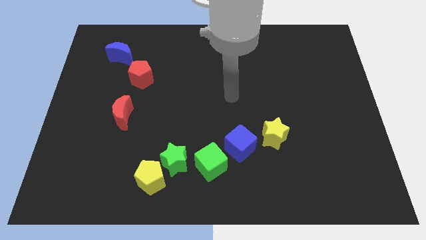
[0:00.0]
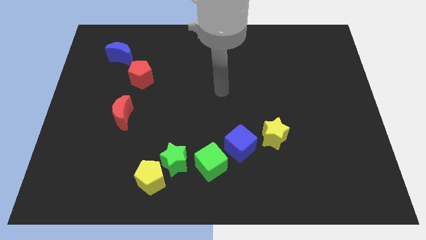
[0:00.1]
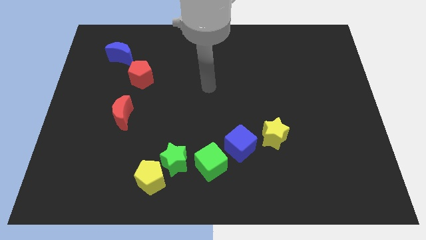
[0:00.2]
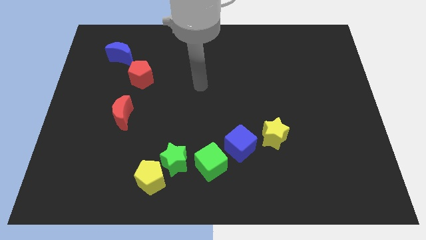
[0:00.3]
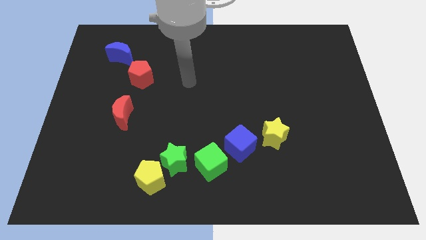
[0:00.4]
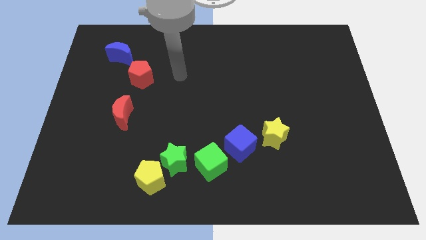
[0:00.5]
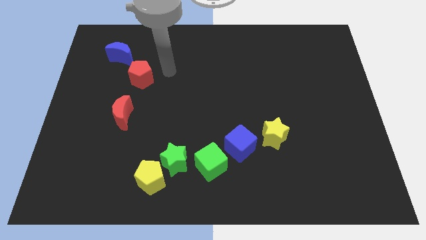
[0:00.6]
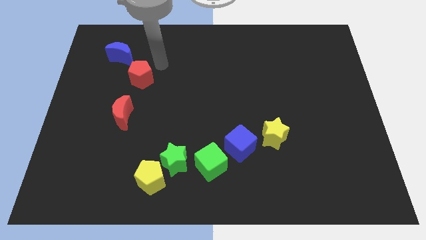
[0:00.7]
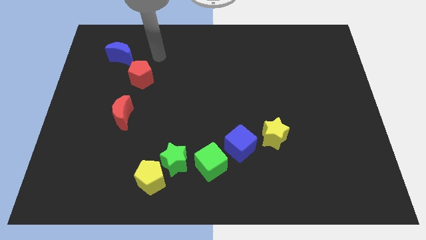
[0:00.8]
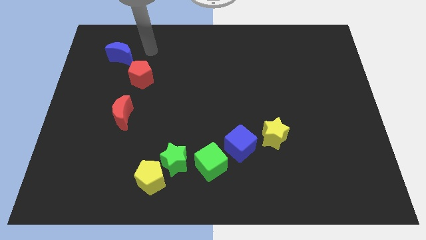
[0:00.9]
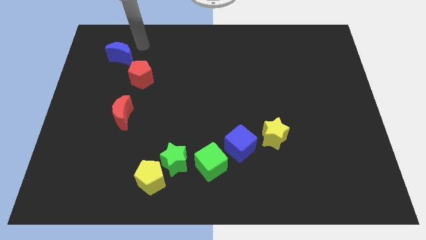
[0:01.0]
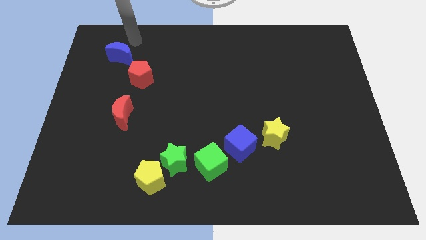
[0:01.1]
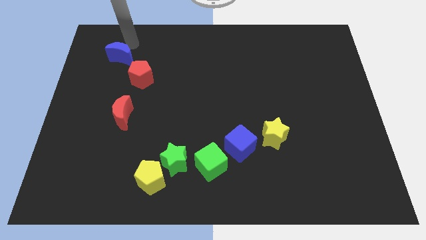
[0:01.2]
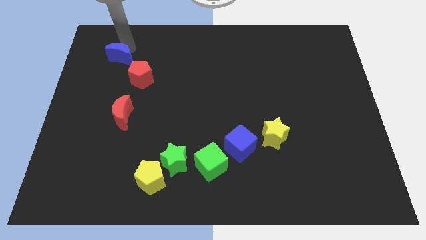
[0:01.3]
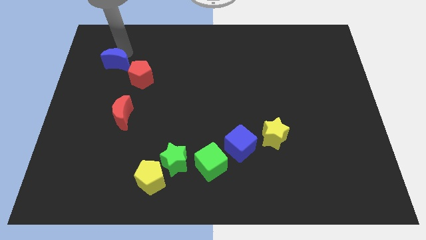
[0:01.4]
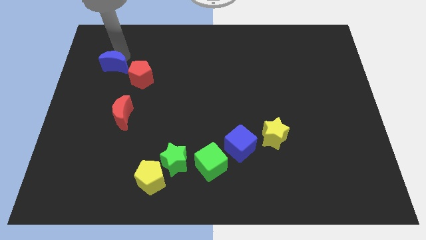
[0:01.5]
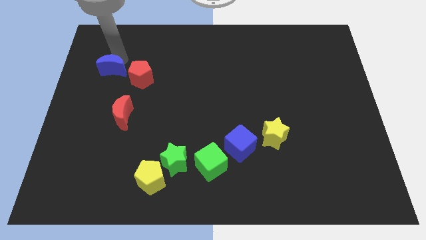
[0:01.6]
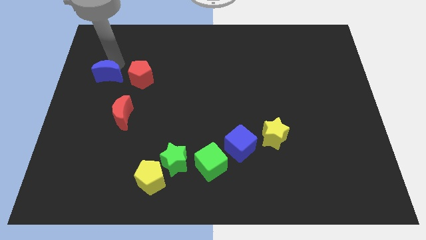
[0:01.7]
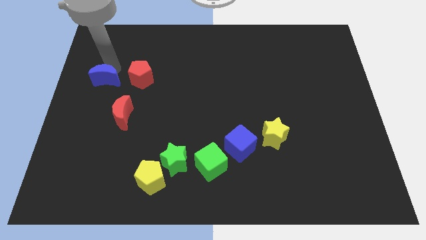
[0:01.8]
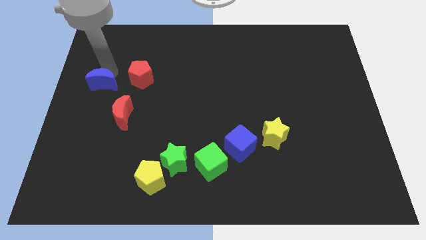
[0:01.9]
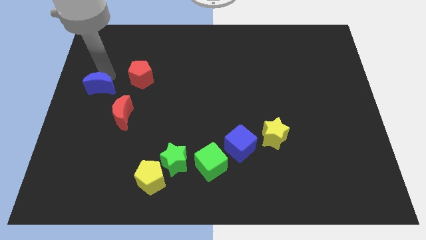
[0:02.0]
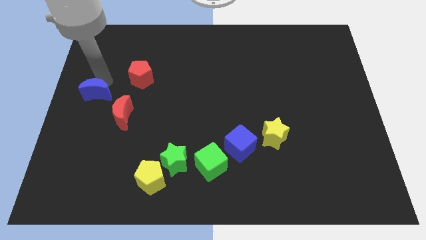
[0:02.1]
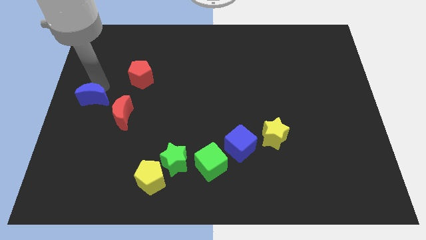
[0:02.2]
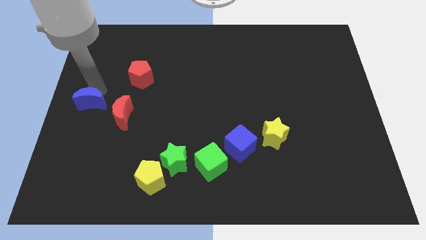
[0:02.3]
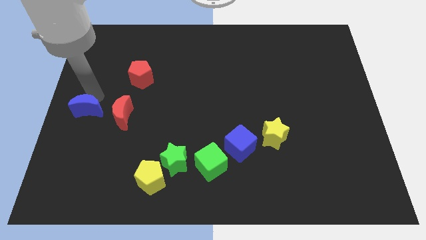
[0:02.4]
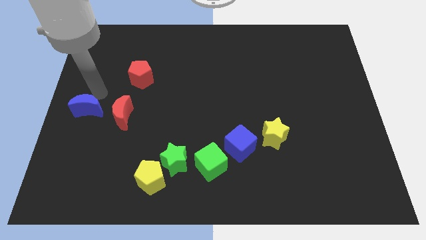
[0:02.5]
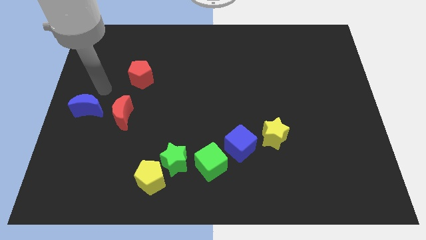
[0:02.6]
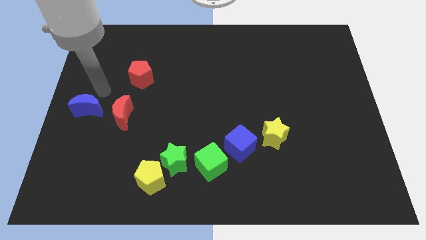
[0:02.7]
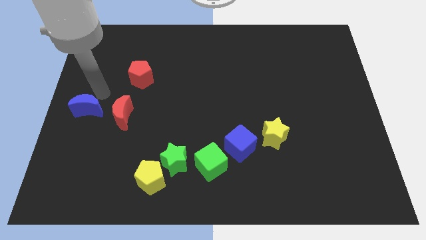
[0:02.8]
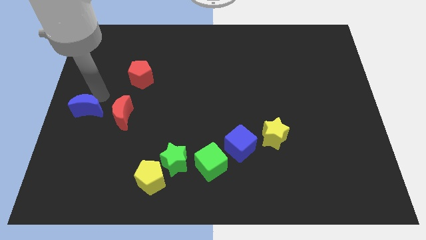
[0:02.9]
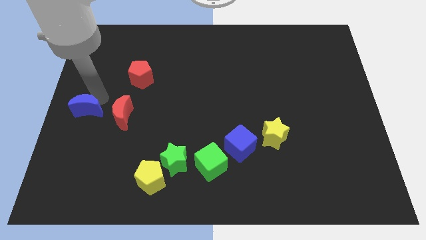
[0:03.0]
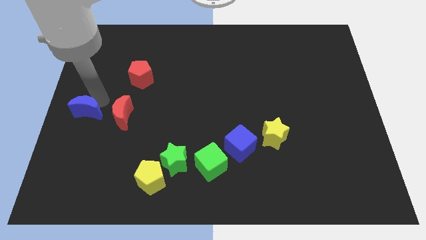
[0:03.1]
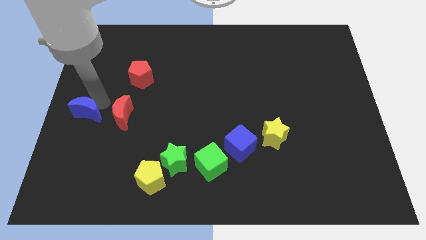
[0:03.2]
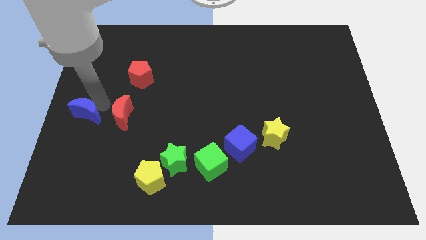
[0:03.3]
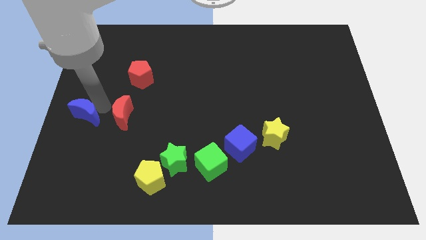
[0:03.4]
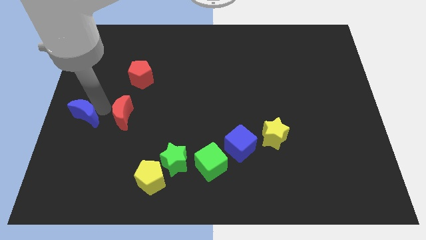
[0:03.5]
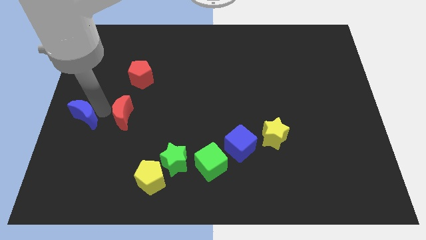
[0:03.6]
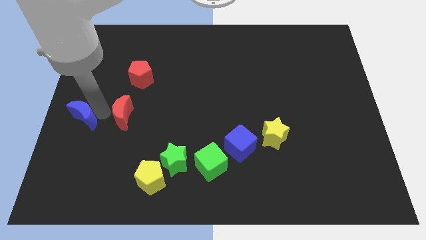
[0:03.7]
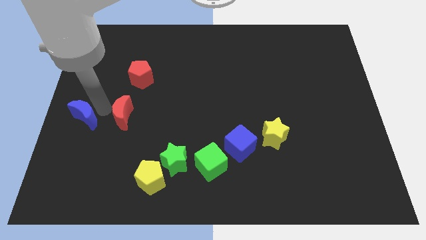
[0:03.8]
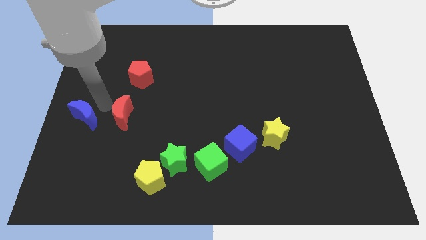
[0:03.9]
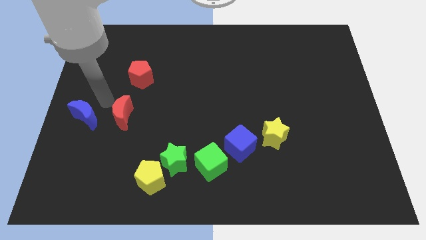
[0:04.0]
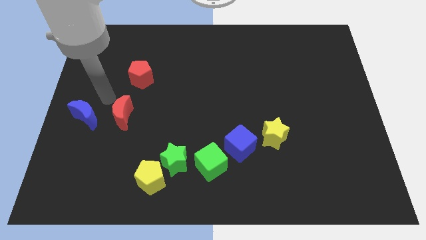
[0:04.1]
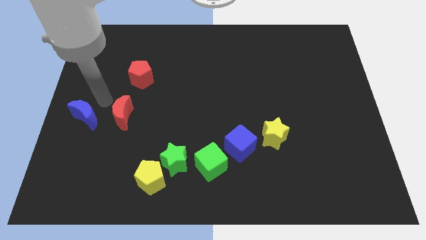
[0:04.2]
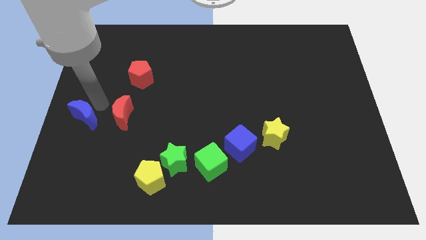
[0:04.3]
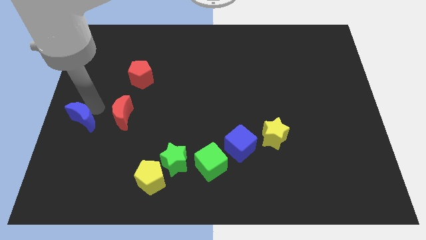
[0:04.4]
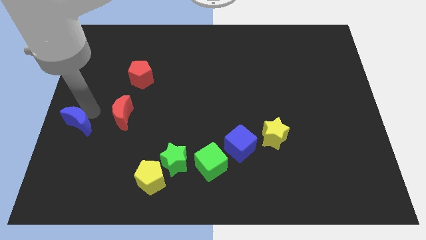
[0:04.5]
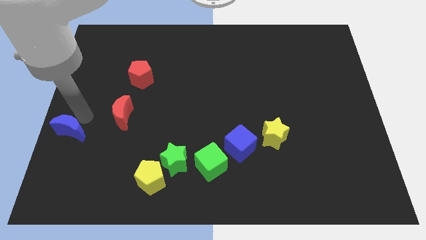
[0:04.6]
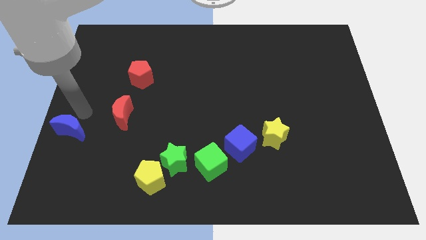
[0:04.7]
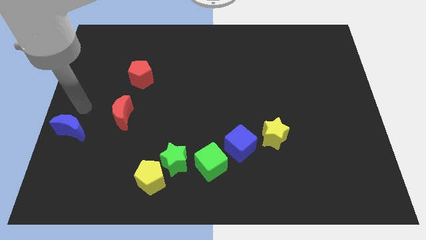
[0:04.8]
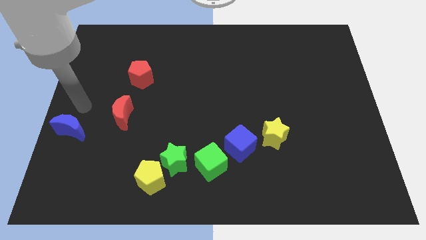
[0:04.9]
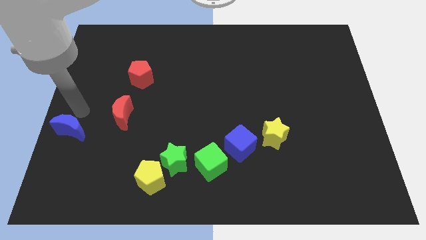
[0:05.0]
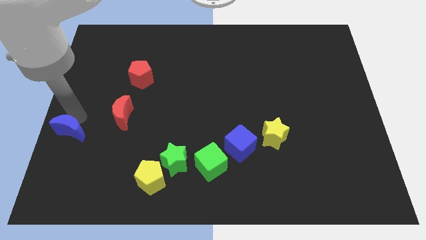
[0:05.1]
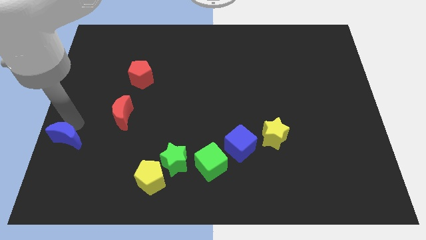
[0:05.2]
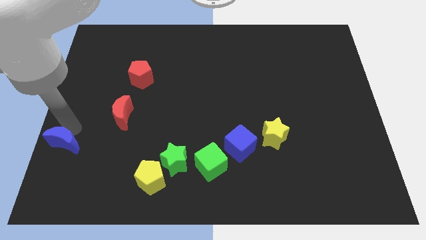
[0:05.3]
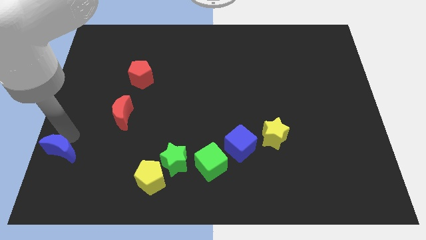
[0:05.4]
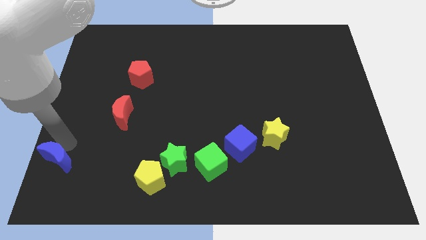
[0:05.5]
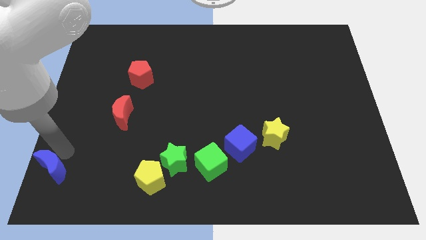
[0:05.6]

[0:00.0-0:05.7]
put the blue moon to the bottom left corner
